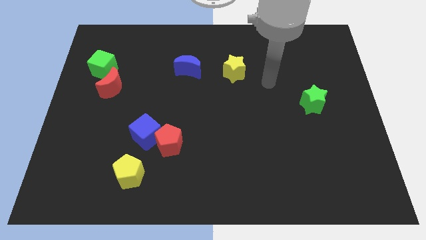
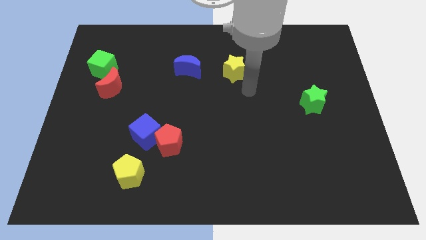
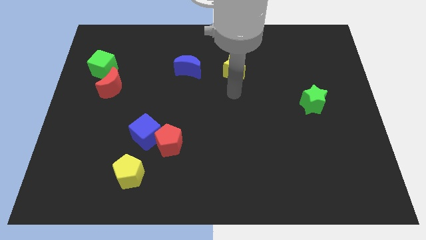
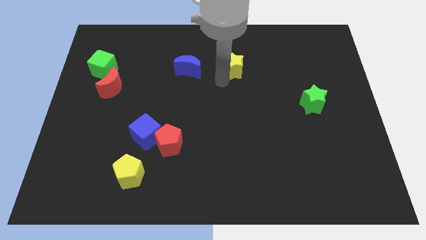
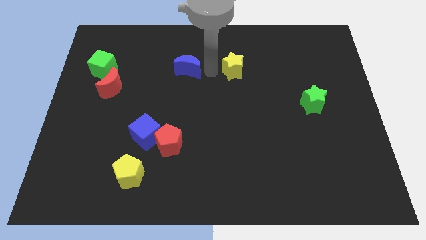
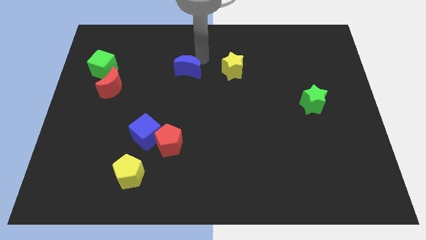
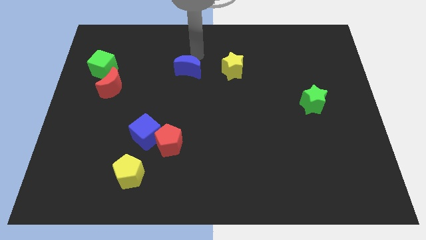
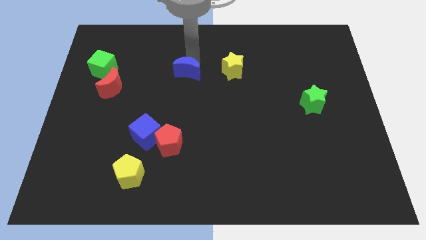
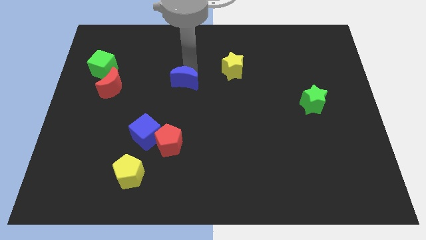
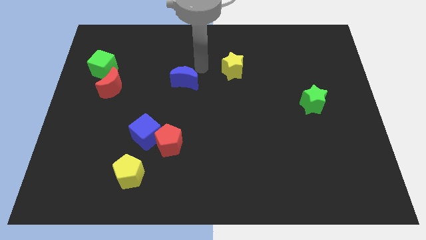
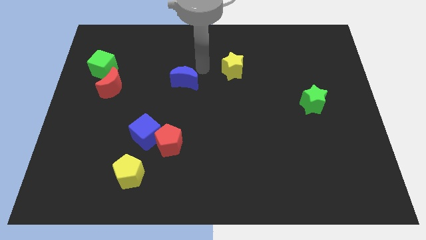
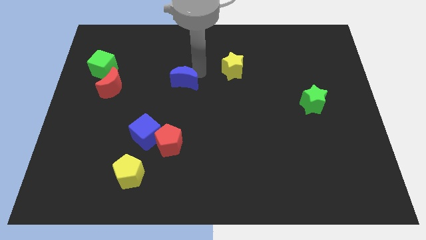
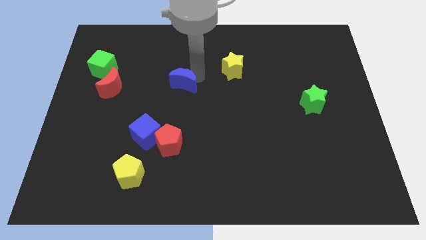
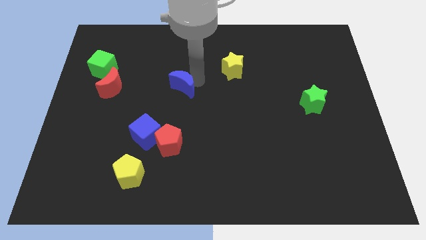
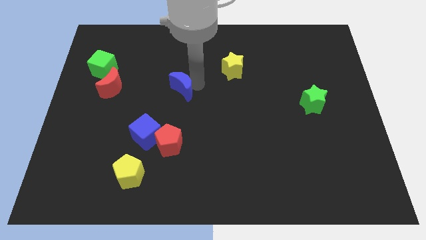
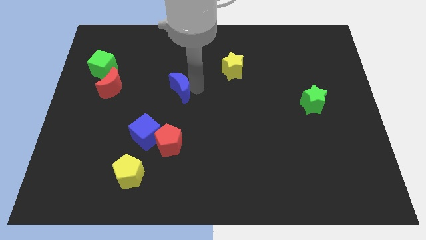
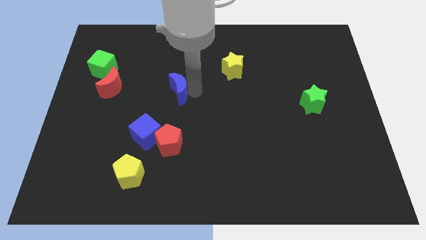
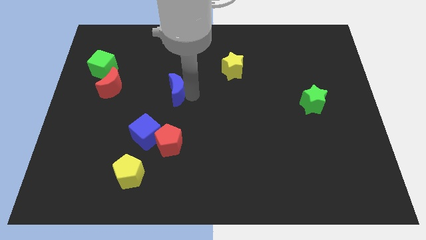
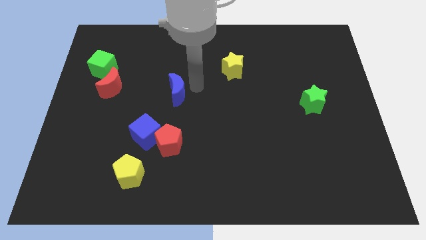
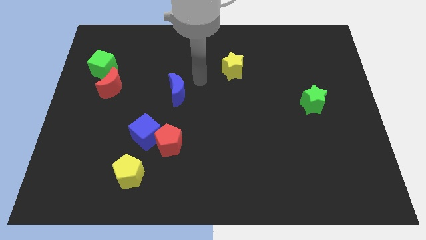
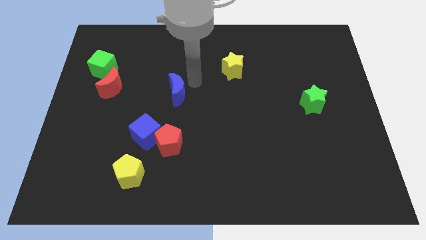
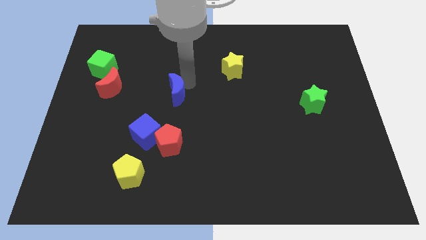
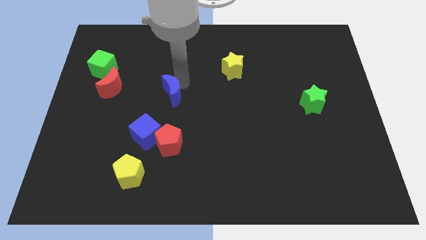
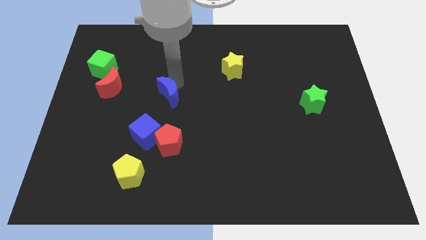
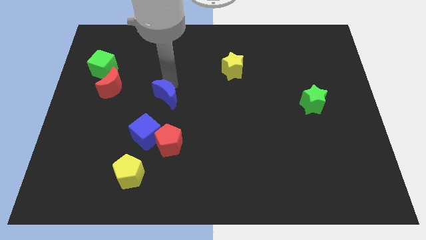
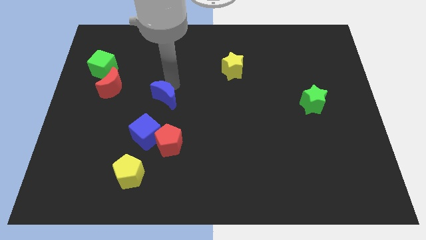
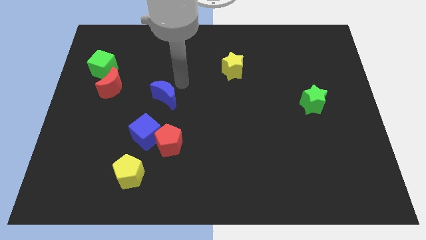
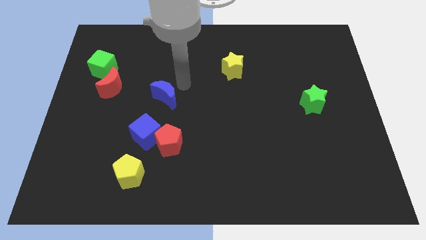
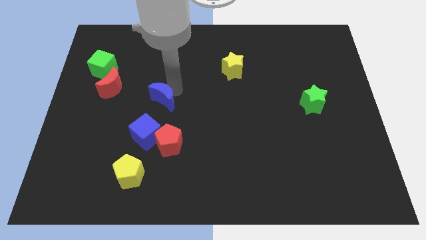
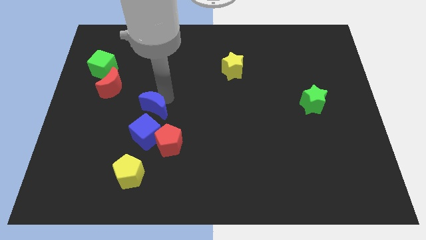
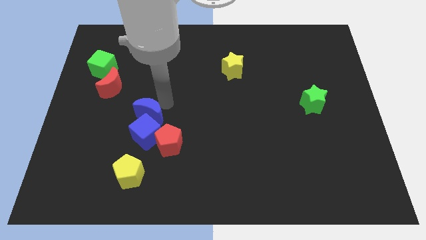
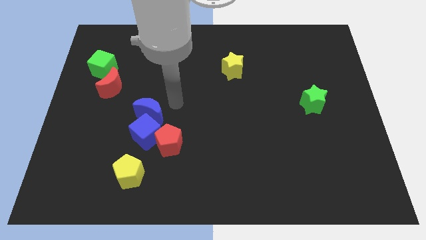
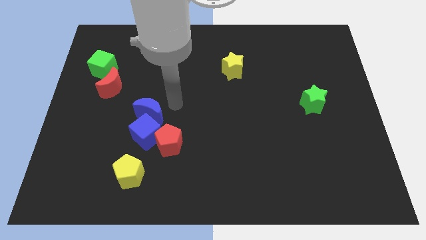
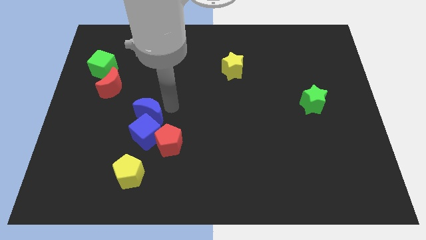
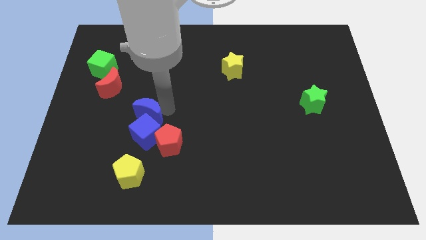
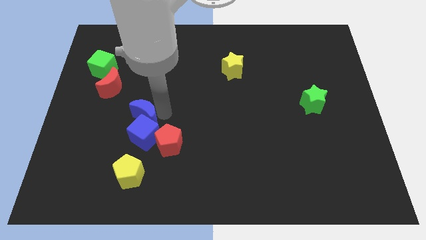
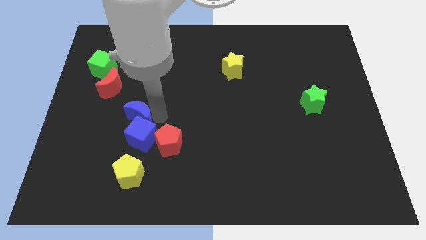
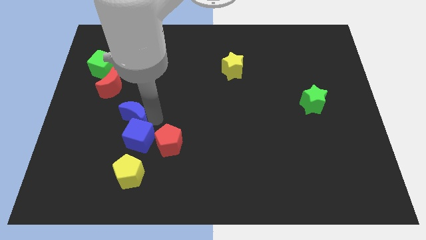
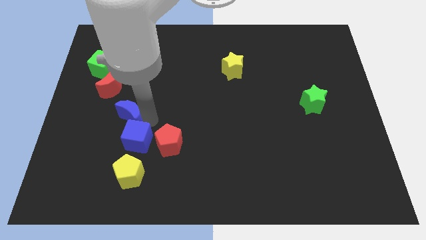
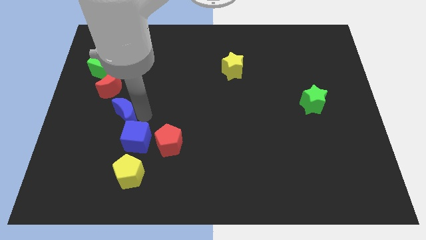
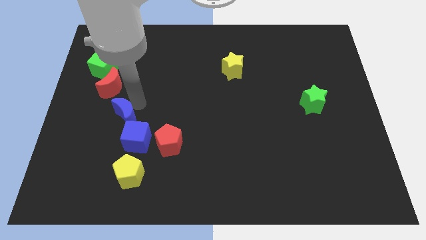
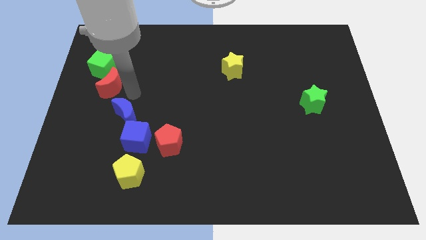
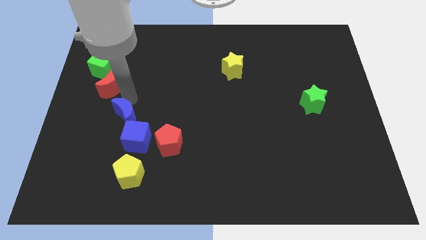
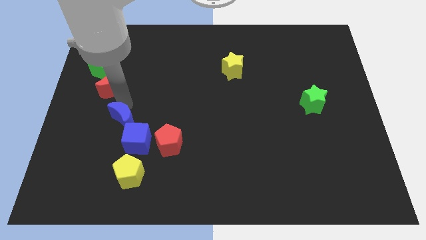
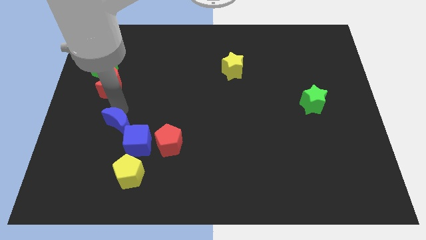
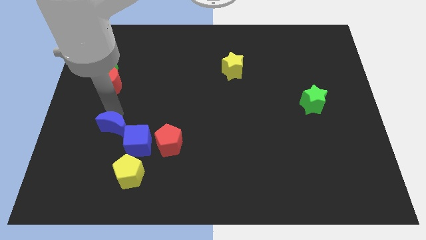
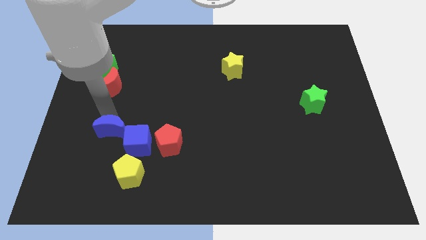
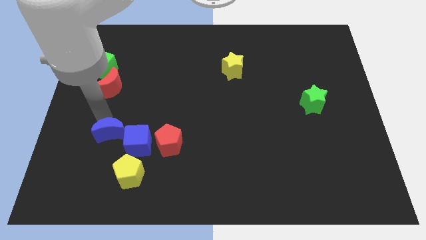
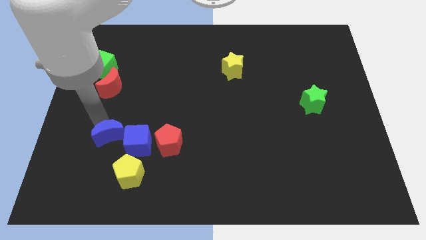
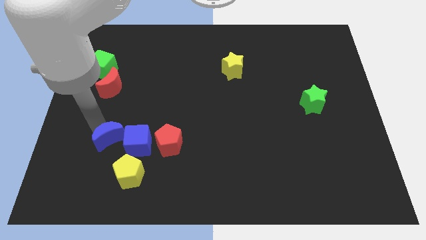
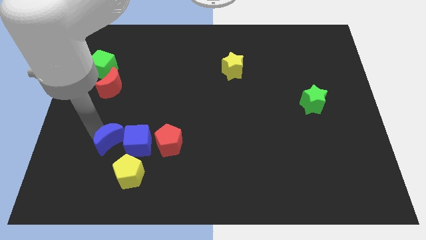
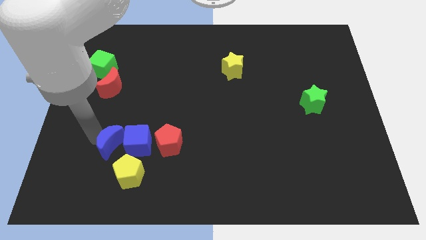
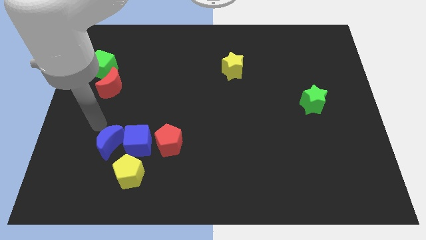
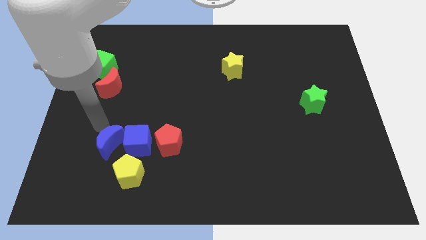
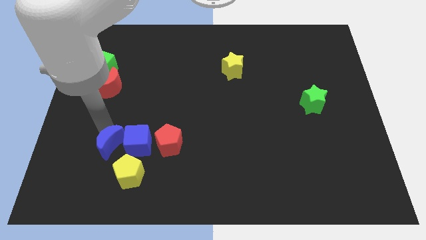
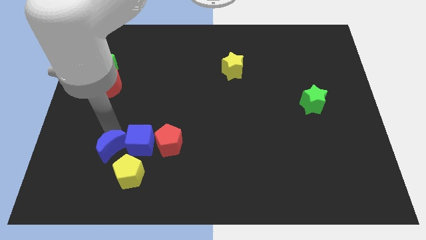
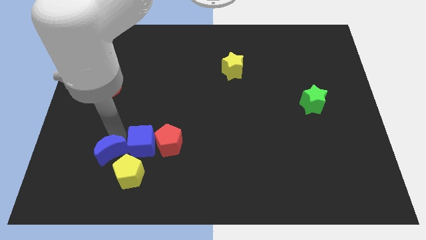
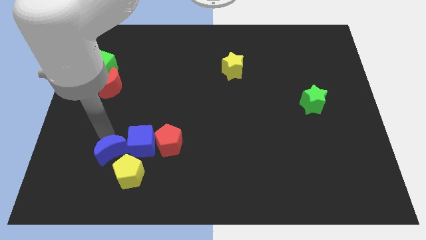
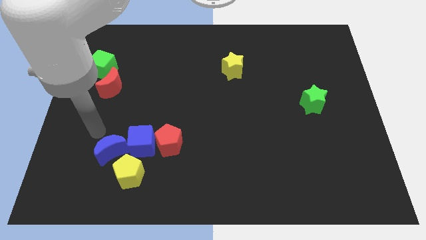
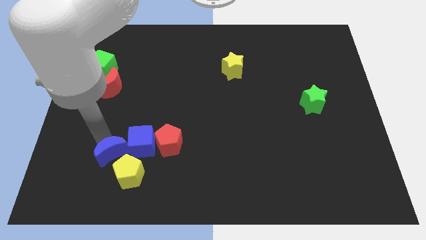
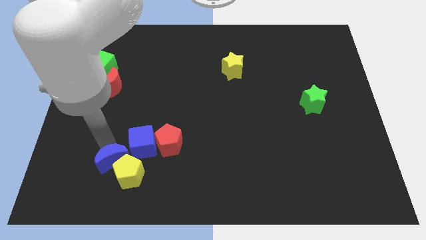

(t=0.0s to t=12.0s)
push the blue moon next to the yellow pentagon

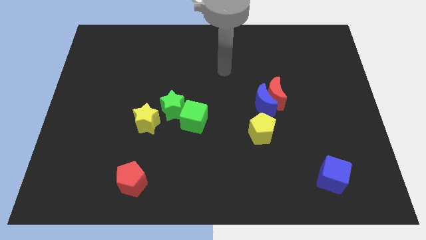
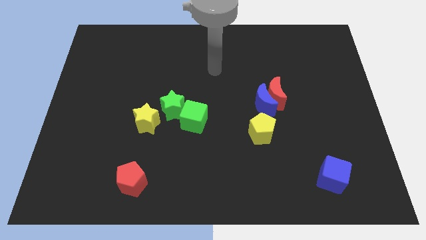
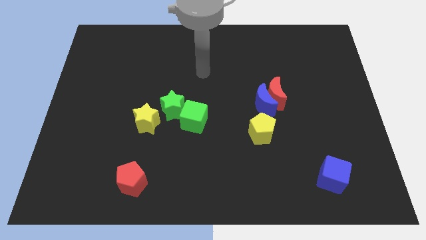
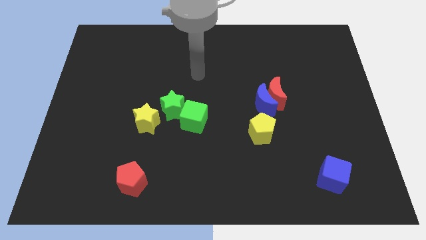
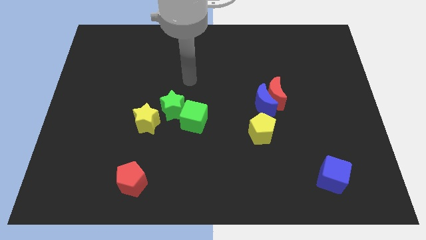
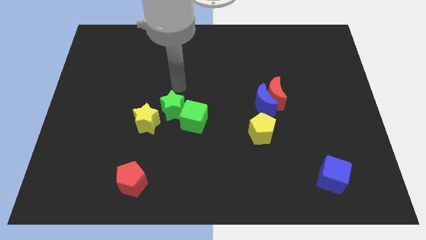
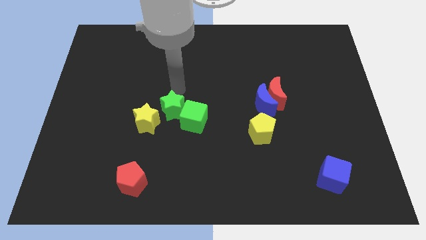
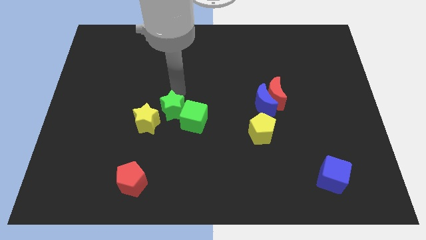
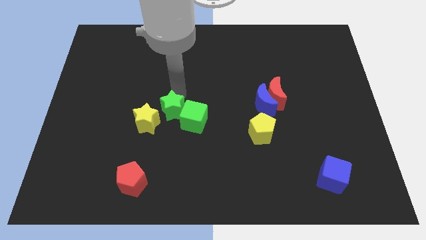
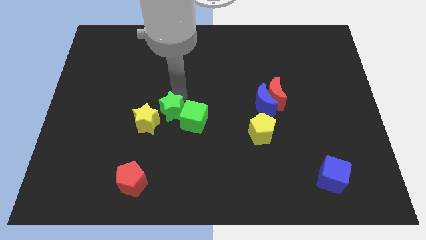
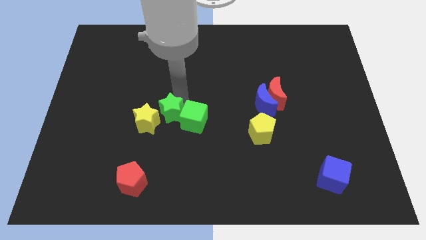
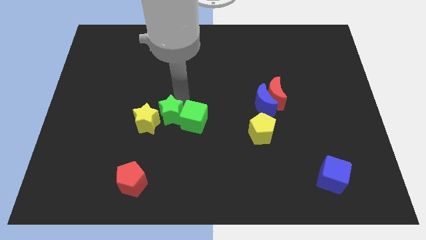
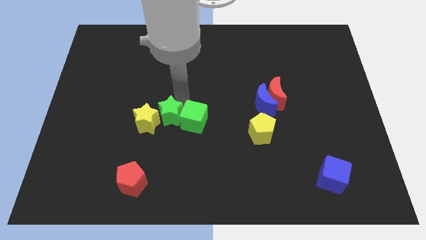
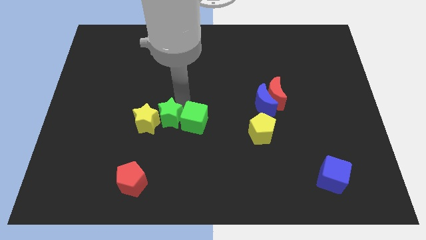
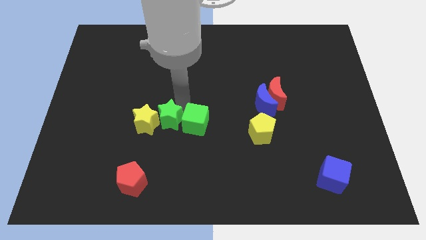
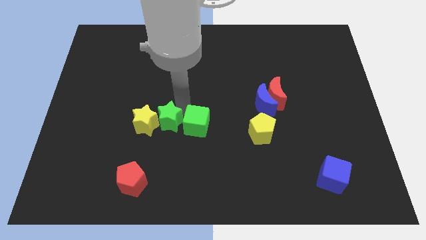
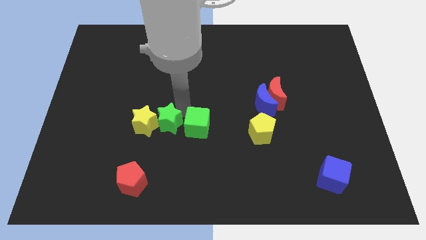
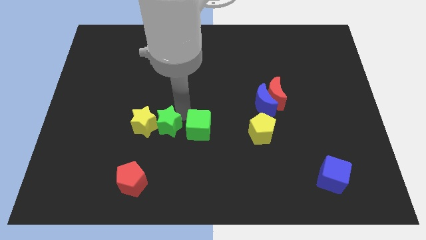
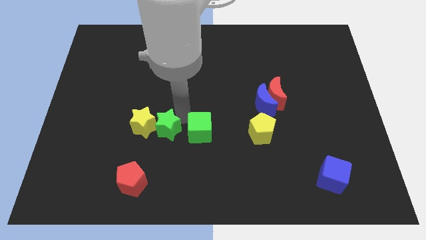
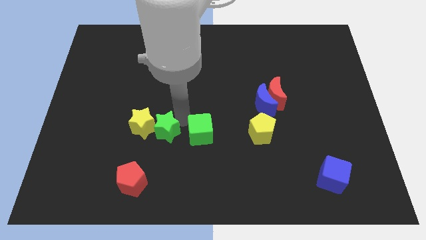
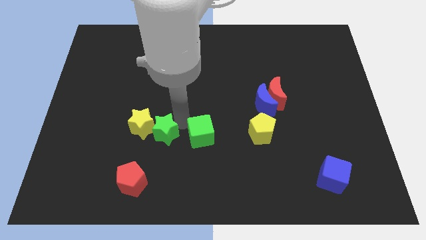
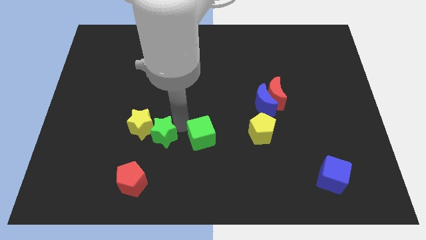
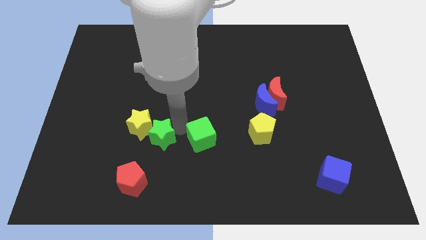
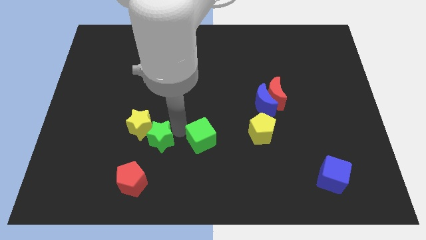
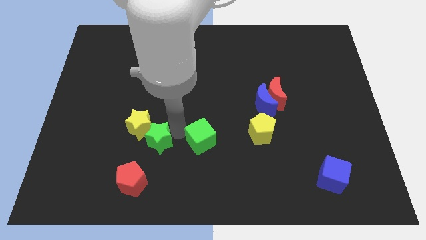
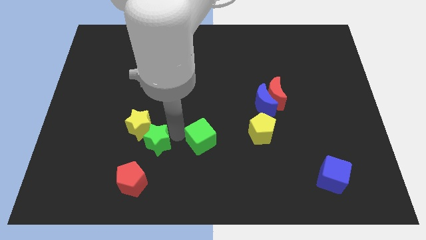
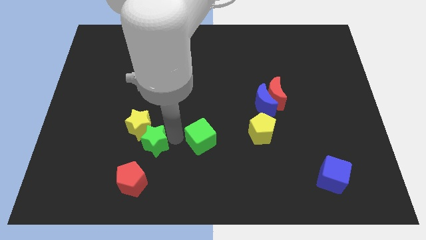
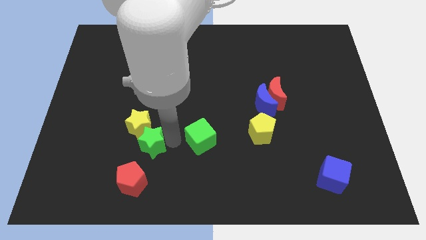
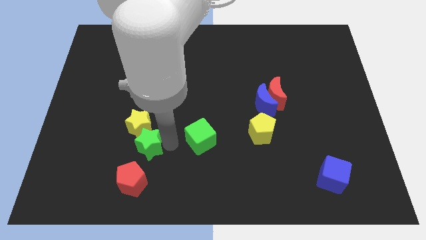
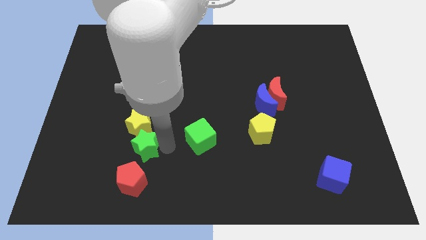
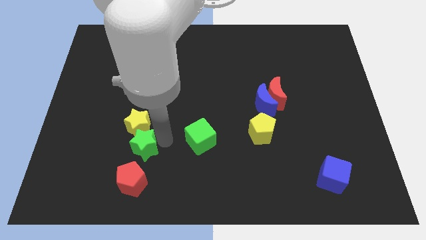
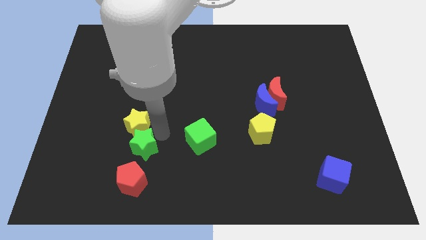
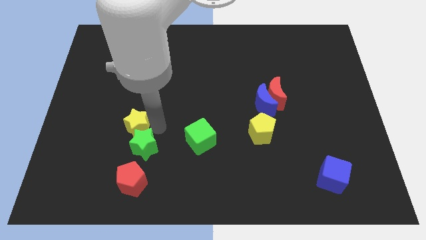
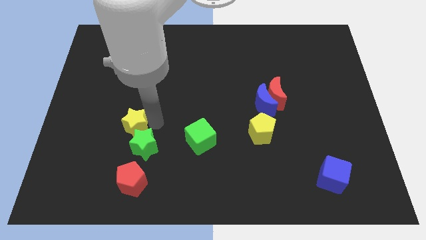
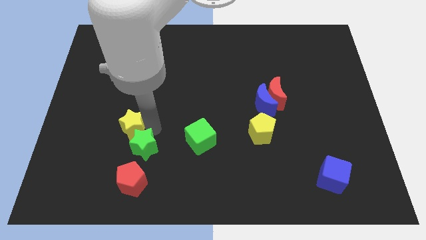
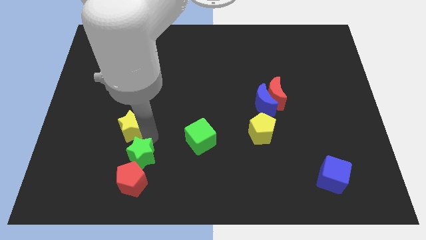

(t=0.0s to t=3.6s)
push the green star to the red pentagon
